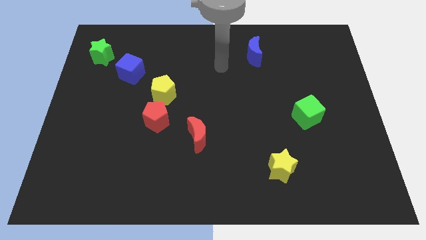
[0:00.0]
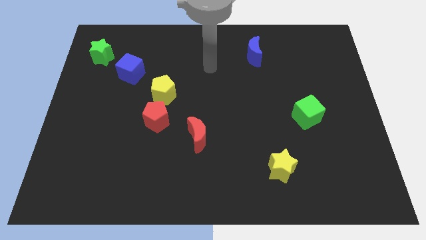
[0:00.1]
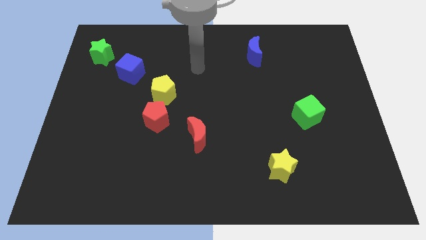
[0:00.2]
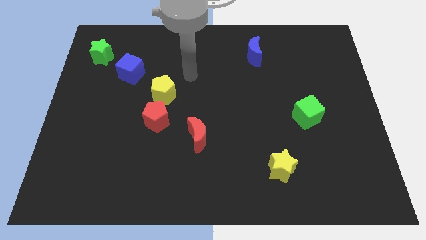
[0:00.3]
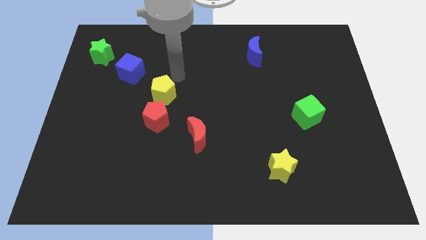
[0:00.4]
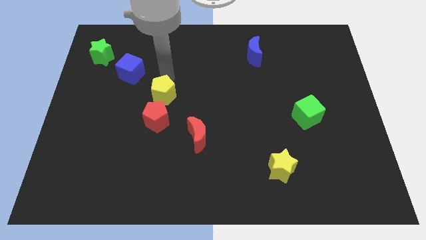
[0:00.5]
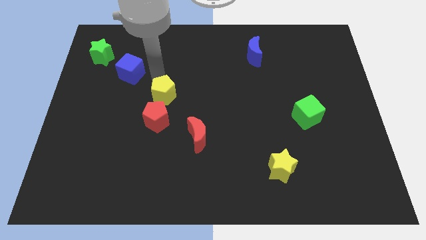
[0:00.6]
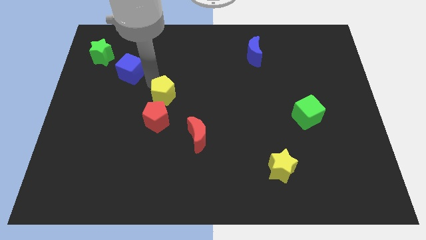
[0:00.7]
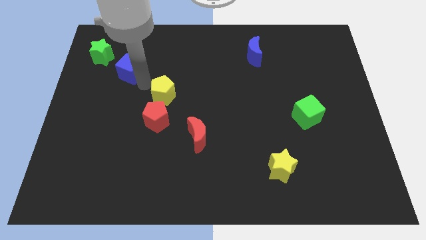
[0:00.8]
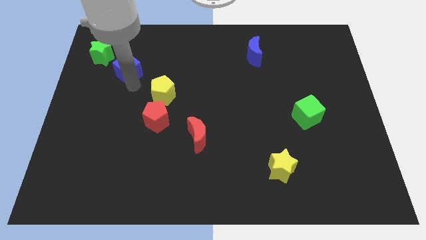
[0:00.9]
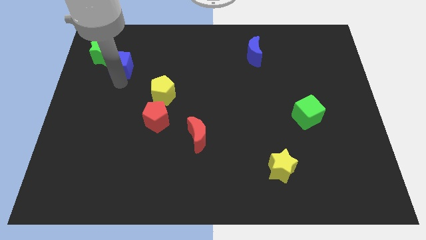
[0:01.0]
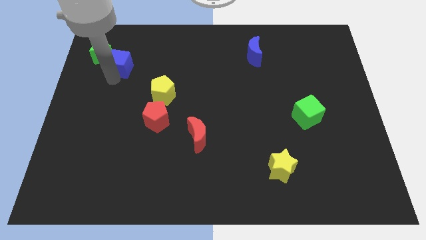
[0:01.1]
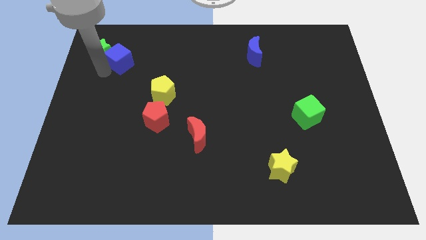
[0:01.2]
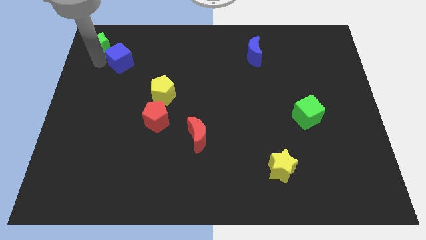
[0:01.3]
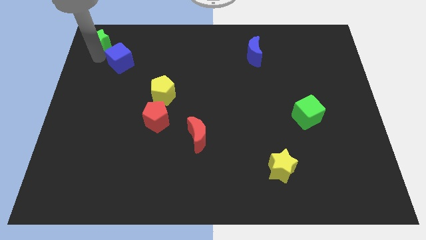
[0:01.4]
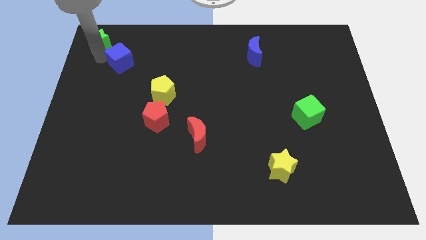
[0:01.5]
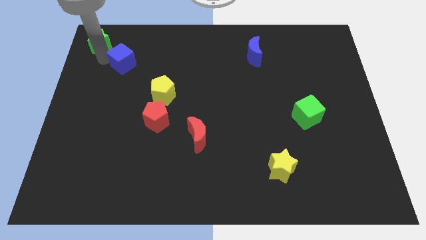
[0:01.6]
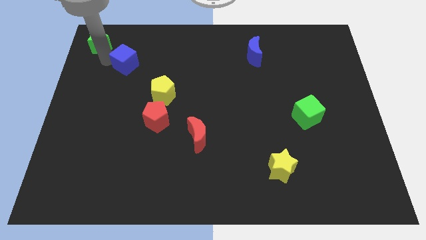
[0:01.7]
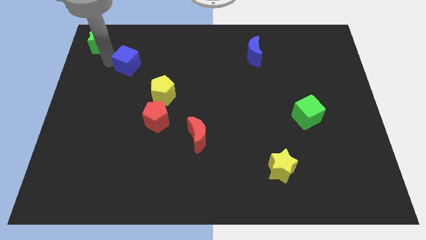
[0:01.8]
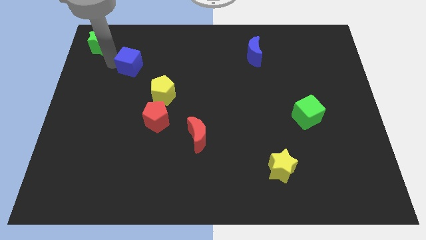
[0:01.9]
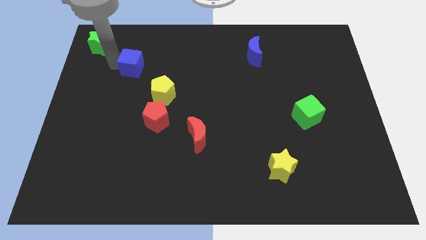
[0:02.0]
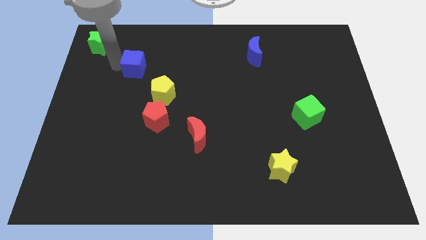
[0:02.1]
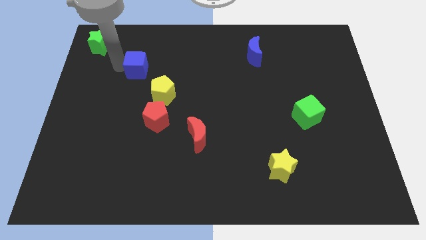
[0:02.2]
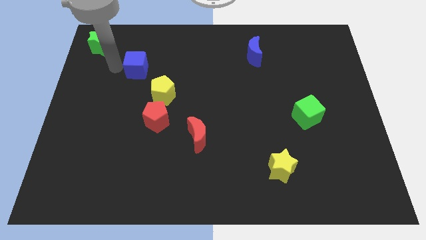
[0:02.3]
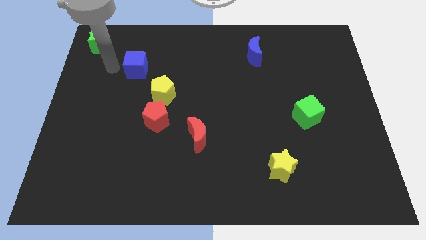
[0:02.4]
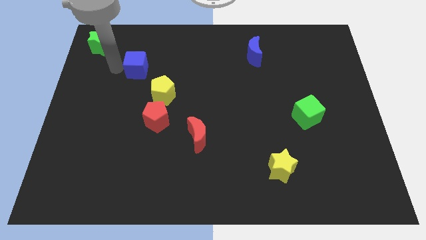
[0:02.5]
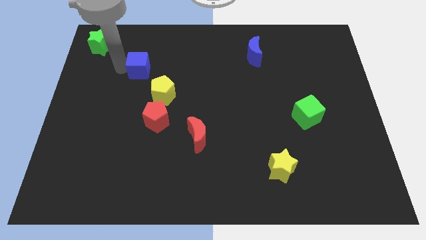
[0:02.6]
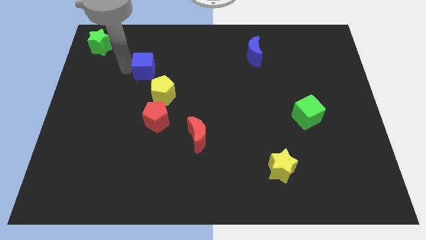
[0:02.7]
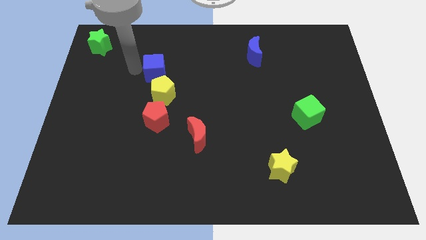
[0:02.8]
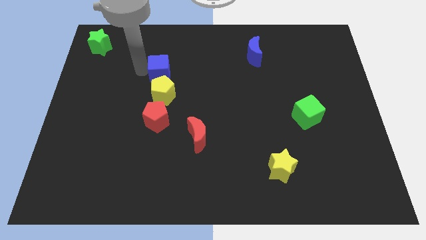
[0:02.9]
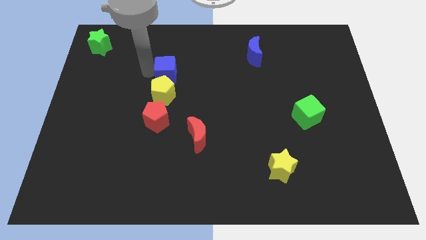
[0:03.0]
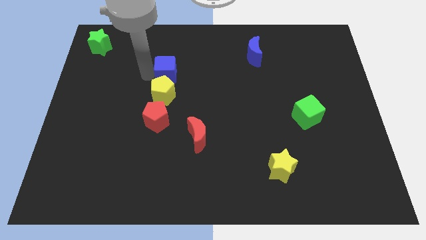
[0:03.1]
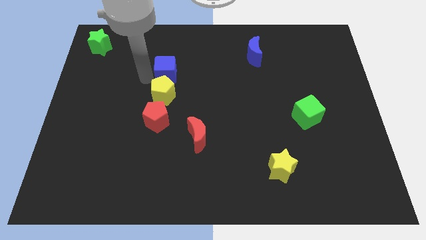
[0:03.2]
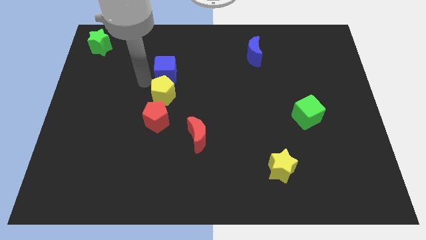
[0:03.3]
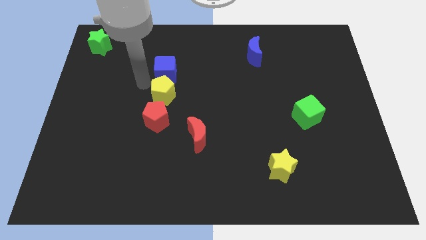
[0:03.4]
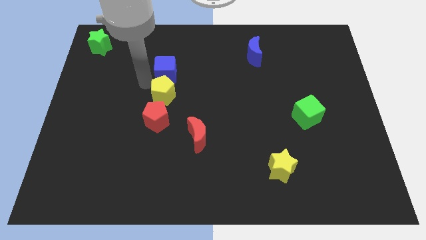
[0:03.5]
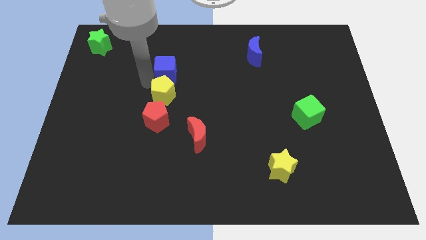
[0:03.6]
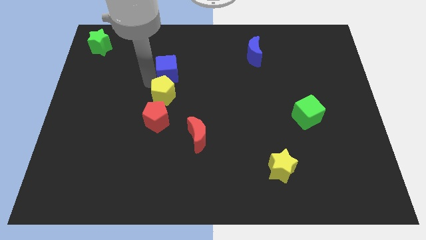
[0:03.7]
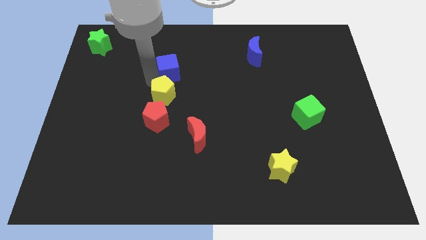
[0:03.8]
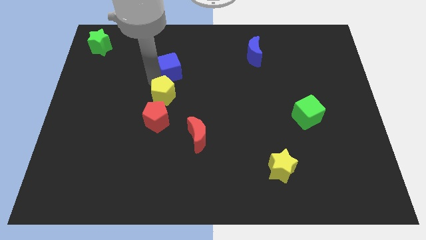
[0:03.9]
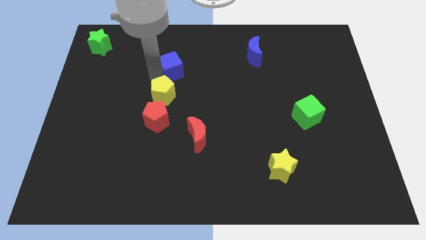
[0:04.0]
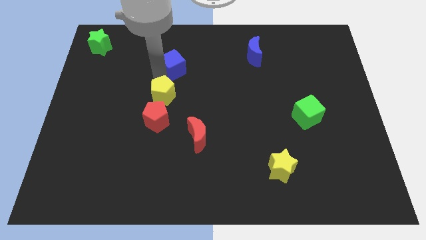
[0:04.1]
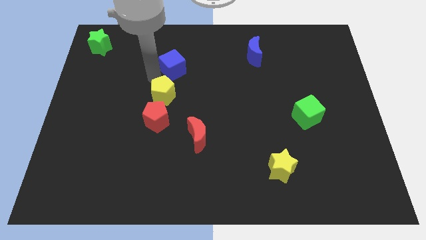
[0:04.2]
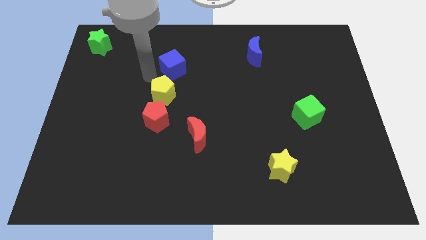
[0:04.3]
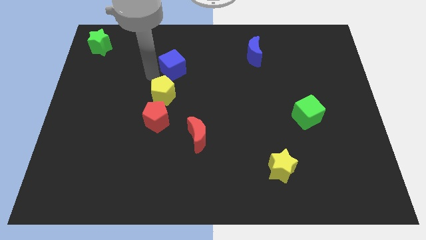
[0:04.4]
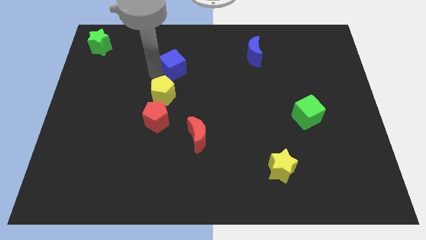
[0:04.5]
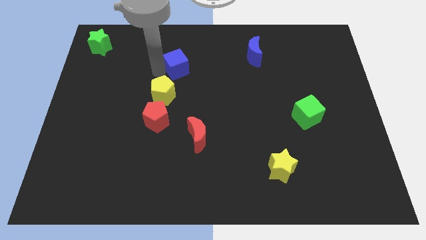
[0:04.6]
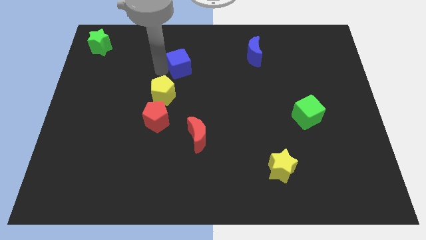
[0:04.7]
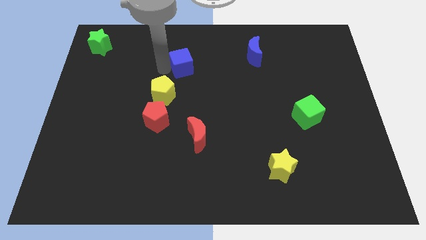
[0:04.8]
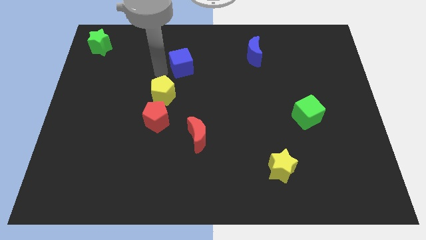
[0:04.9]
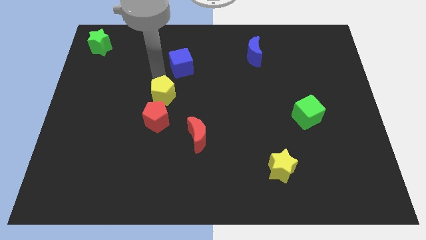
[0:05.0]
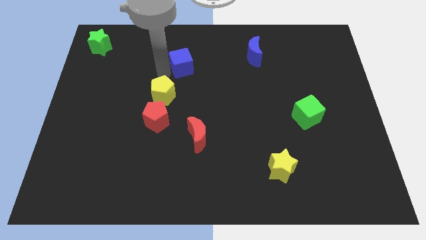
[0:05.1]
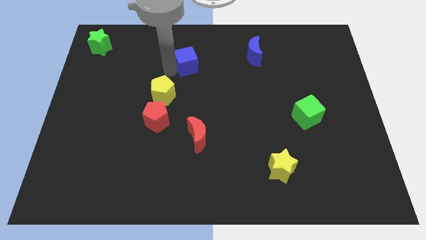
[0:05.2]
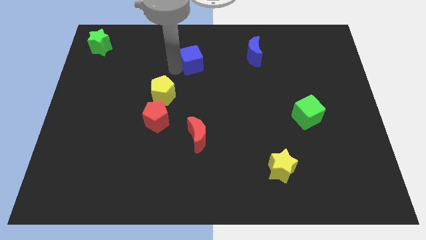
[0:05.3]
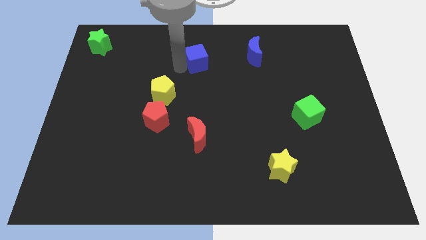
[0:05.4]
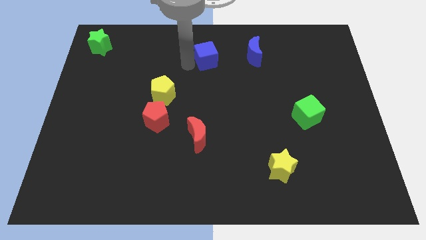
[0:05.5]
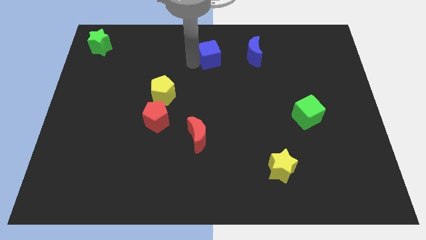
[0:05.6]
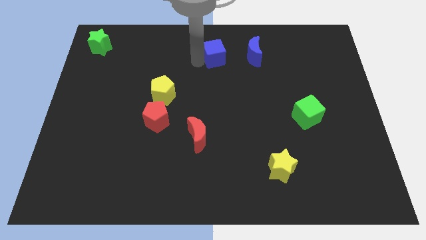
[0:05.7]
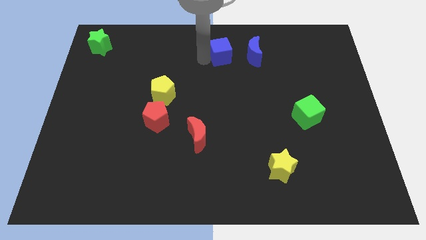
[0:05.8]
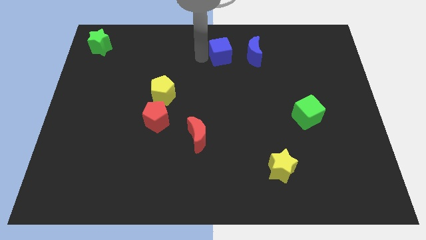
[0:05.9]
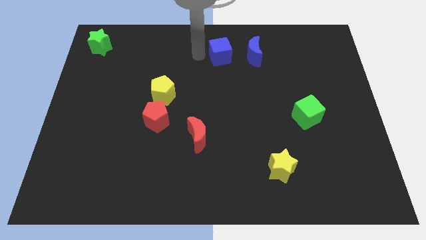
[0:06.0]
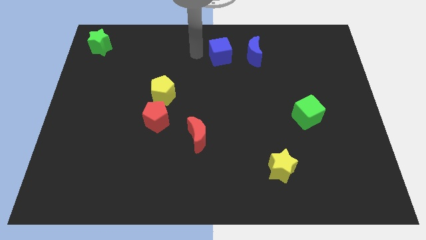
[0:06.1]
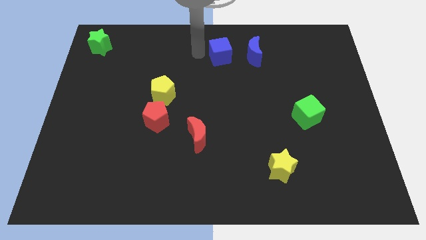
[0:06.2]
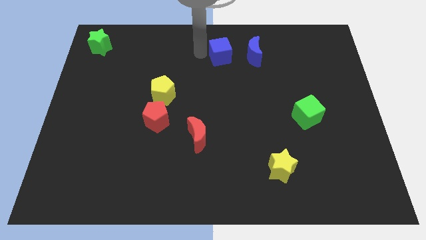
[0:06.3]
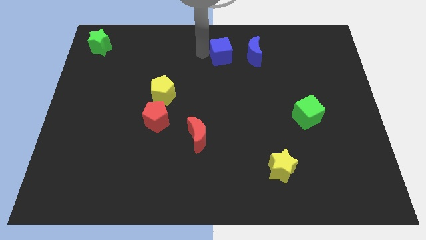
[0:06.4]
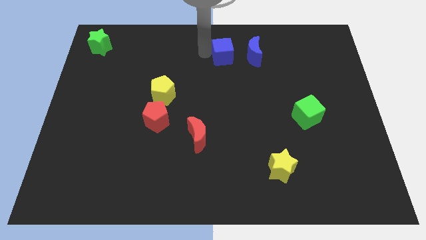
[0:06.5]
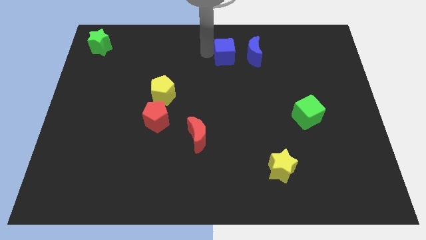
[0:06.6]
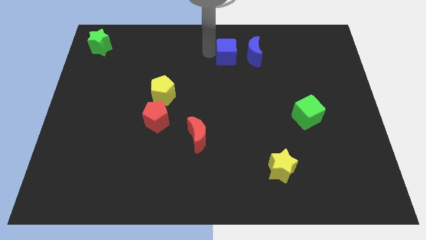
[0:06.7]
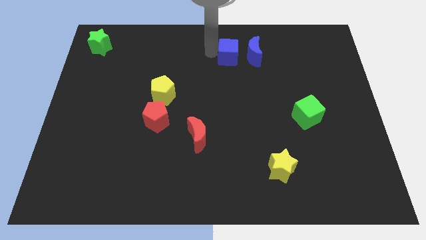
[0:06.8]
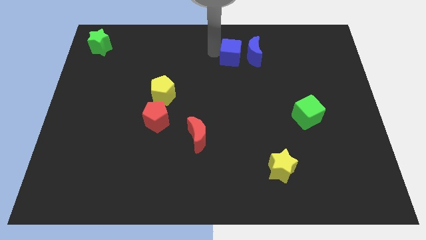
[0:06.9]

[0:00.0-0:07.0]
slide the blue cube towards the blue moon
